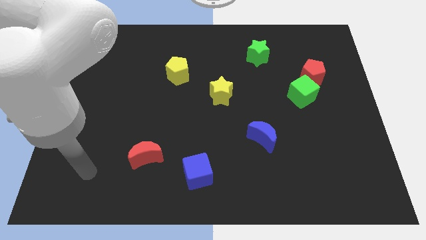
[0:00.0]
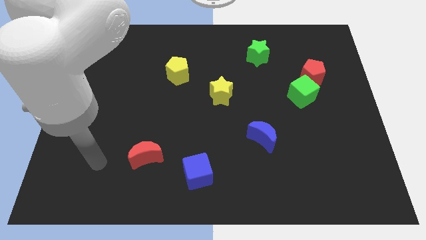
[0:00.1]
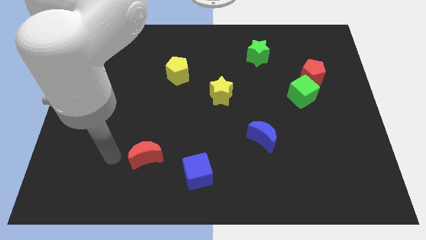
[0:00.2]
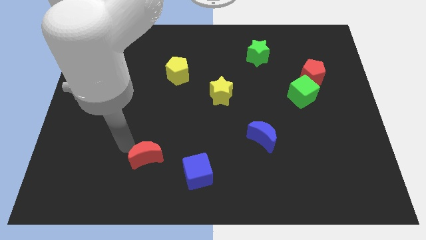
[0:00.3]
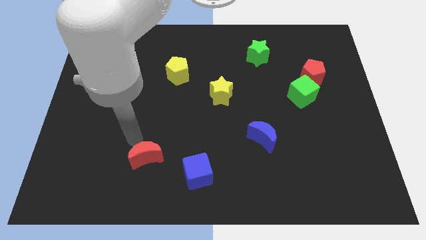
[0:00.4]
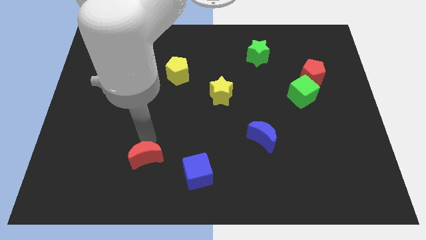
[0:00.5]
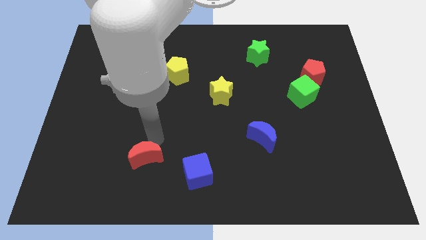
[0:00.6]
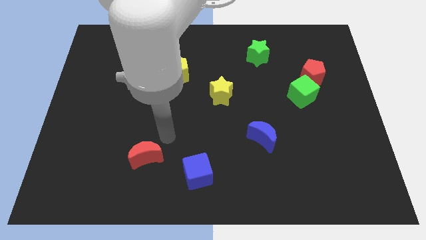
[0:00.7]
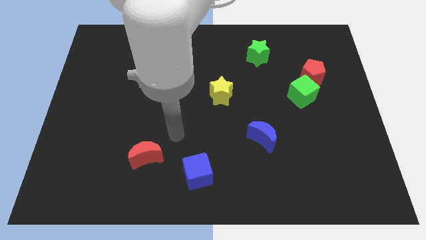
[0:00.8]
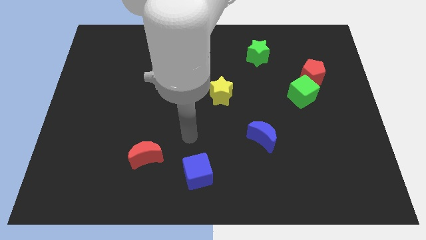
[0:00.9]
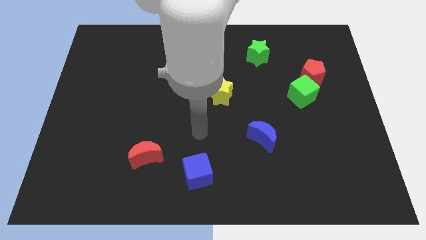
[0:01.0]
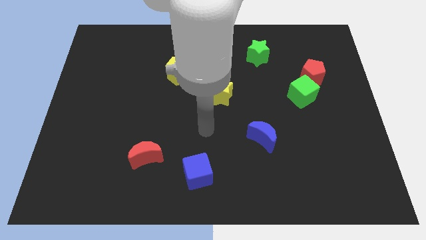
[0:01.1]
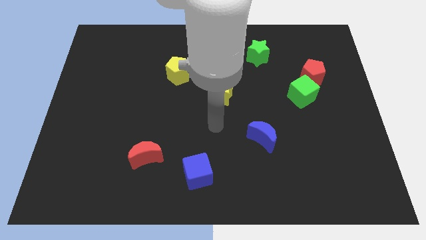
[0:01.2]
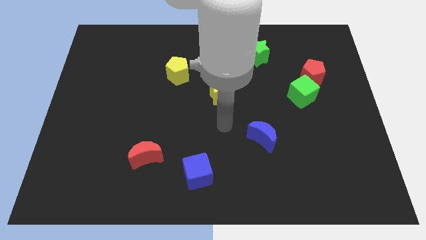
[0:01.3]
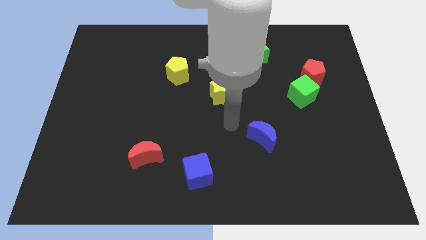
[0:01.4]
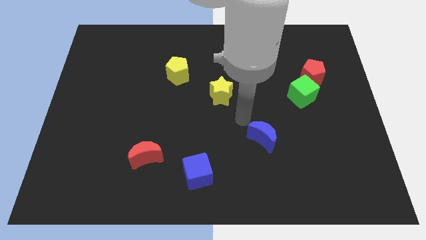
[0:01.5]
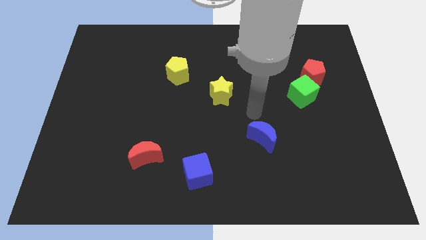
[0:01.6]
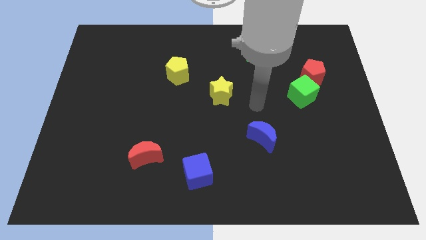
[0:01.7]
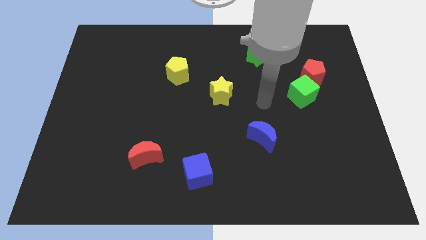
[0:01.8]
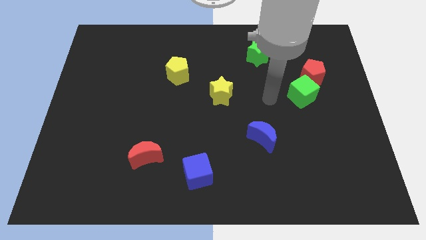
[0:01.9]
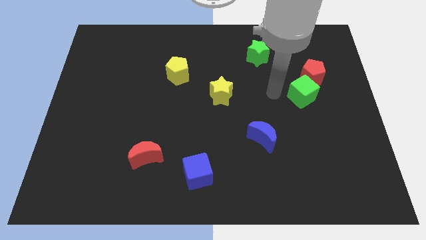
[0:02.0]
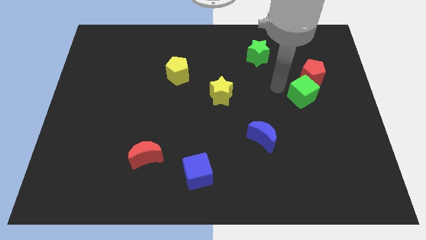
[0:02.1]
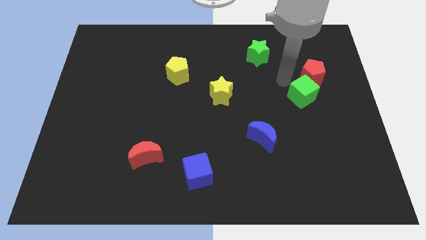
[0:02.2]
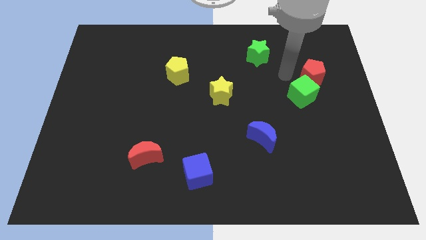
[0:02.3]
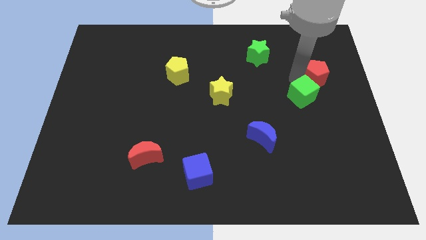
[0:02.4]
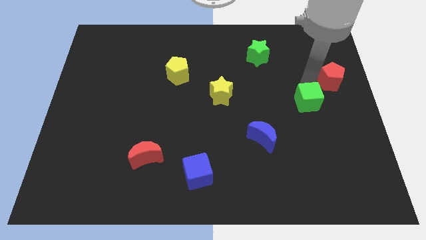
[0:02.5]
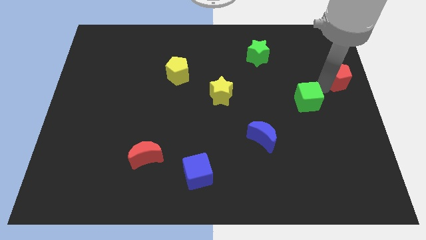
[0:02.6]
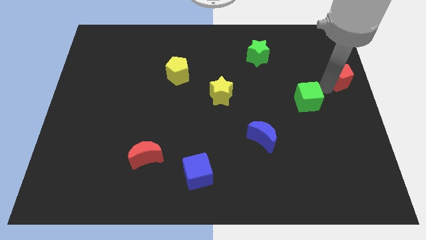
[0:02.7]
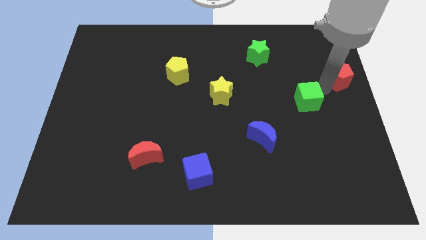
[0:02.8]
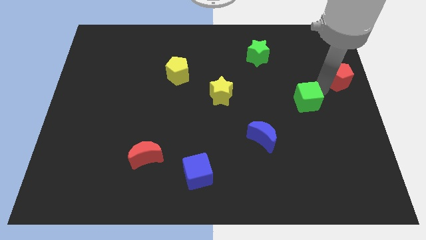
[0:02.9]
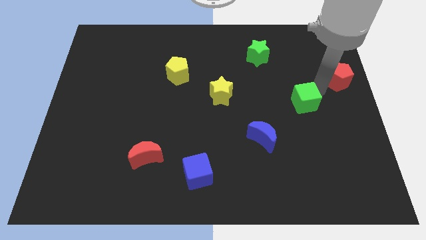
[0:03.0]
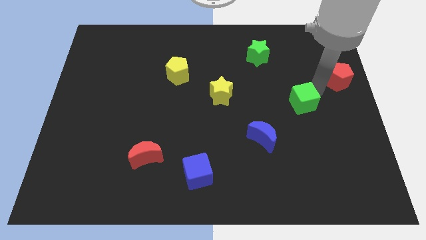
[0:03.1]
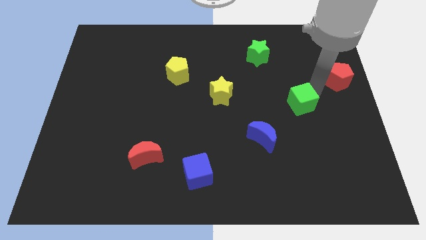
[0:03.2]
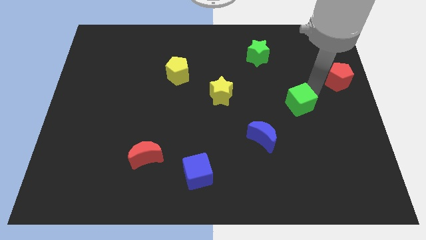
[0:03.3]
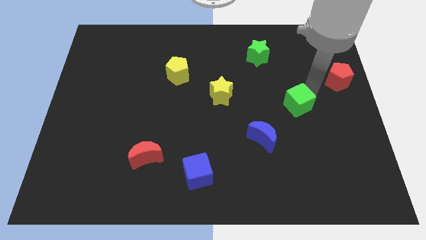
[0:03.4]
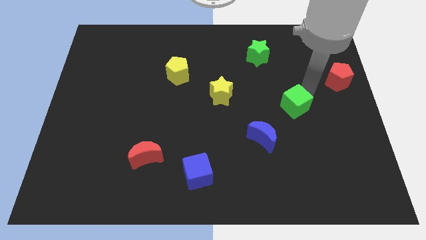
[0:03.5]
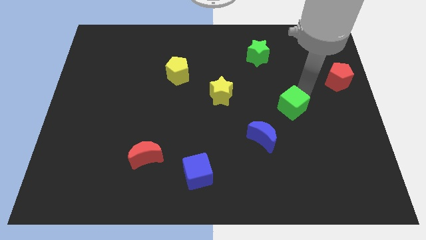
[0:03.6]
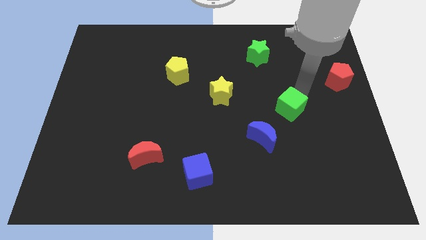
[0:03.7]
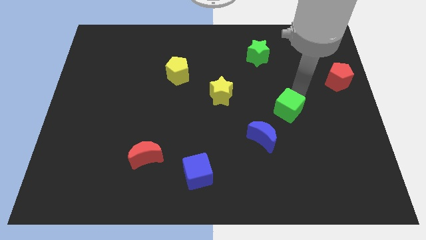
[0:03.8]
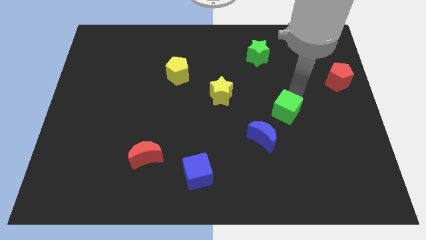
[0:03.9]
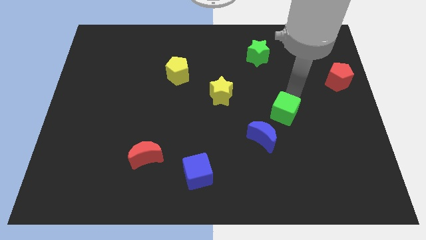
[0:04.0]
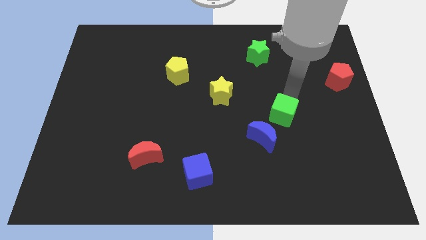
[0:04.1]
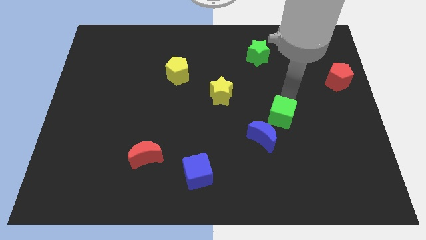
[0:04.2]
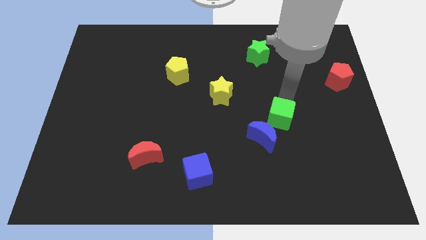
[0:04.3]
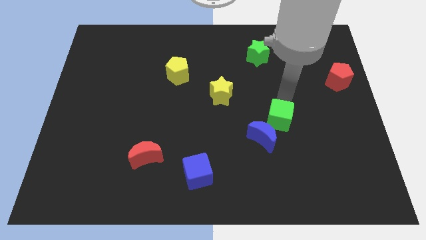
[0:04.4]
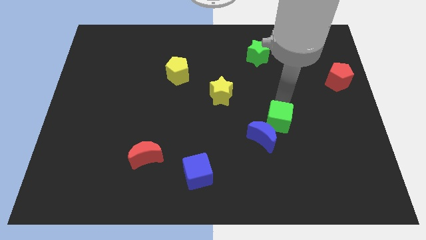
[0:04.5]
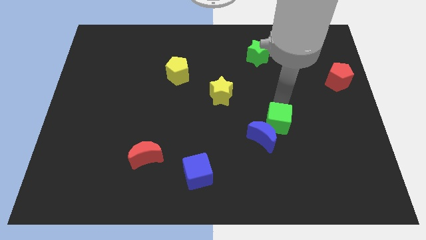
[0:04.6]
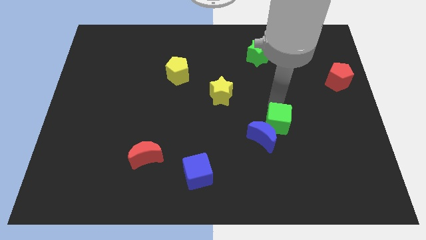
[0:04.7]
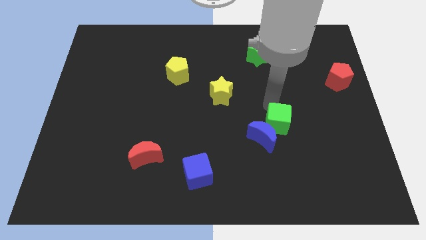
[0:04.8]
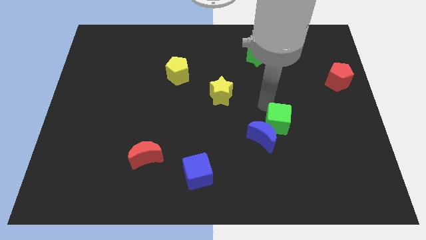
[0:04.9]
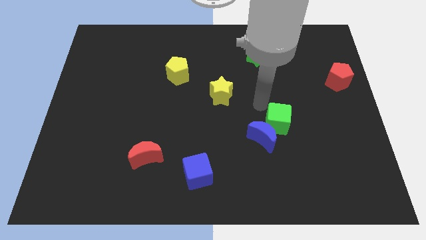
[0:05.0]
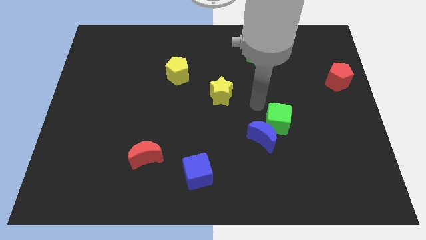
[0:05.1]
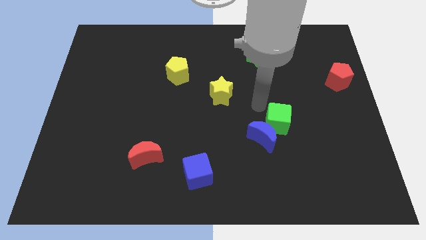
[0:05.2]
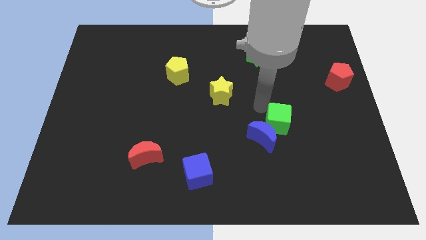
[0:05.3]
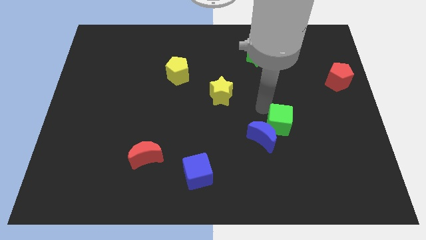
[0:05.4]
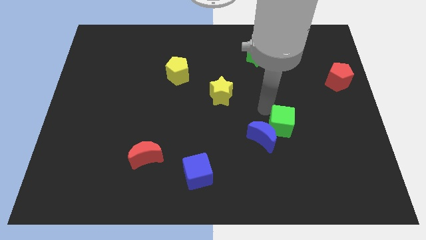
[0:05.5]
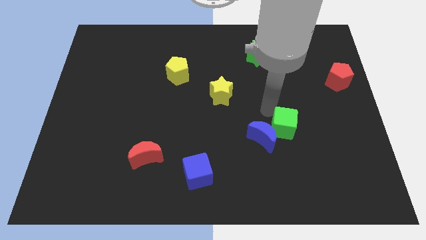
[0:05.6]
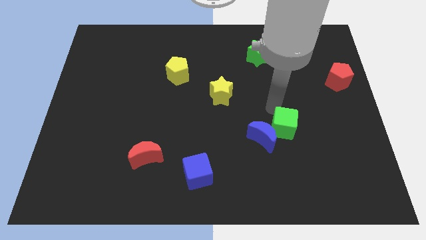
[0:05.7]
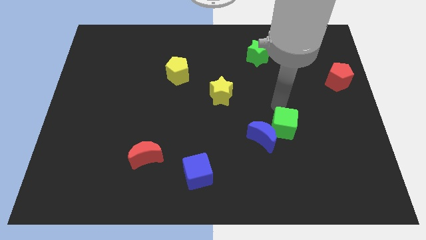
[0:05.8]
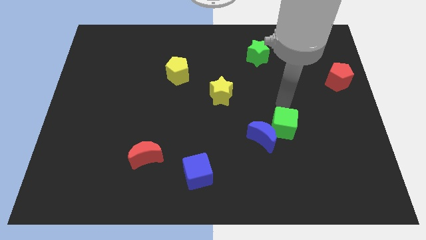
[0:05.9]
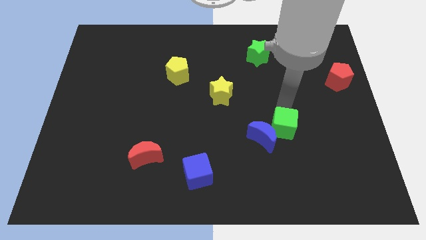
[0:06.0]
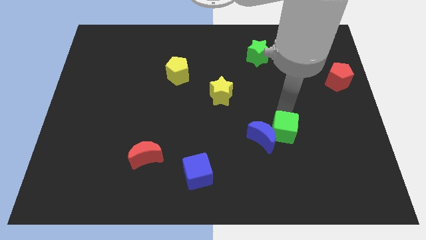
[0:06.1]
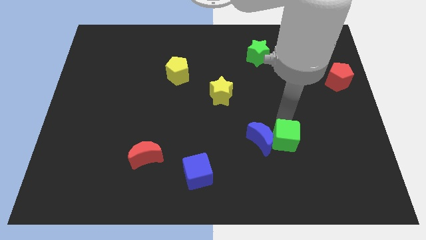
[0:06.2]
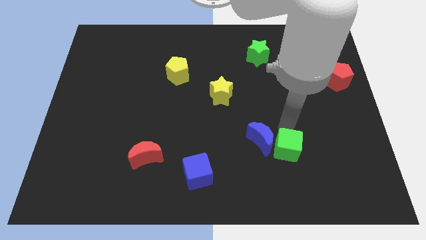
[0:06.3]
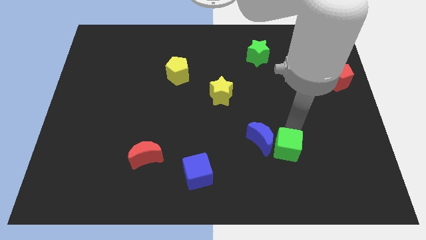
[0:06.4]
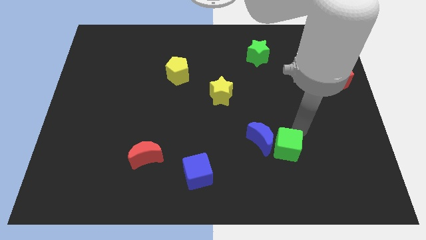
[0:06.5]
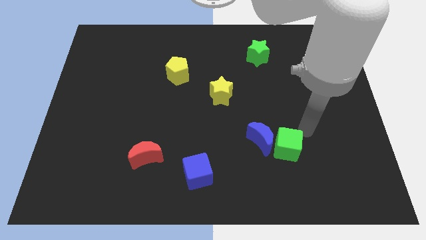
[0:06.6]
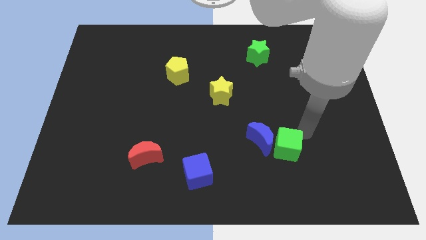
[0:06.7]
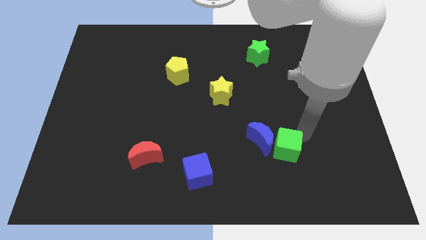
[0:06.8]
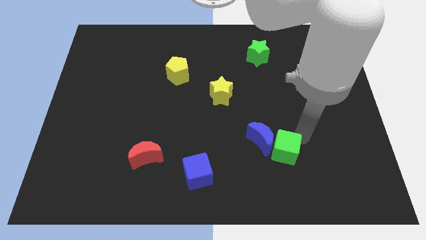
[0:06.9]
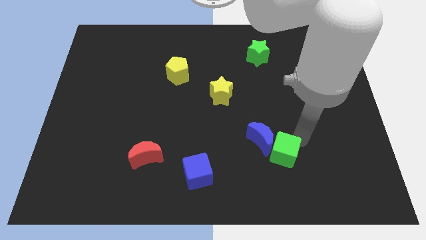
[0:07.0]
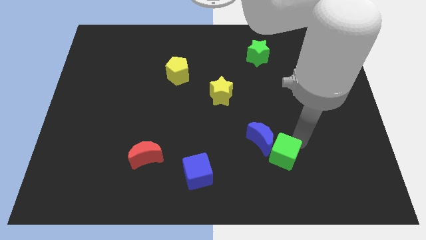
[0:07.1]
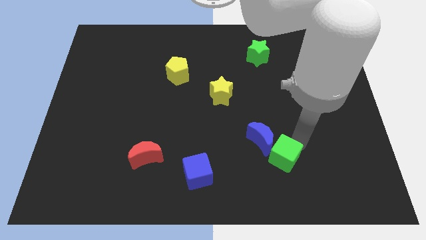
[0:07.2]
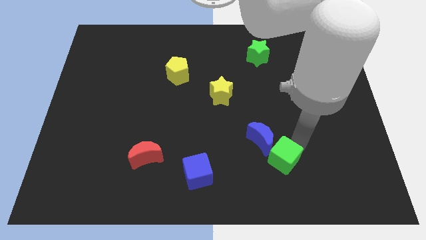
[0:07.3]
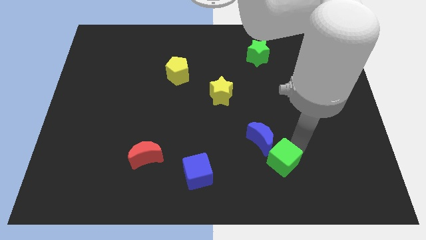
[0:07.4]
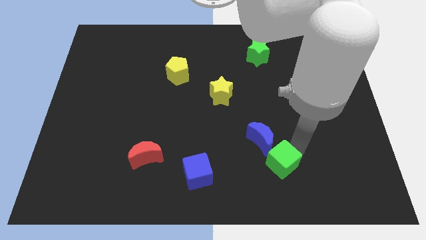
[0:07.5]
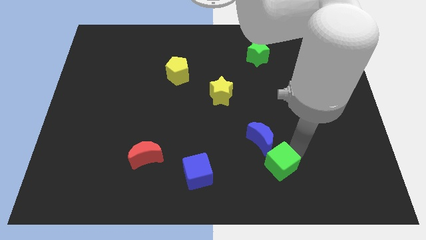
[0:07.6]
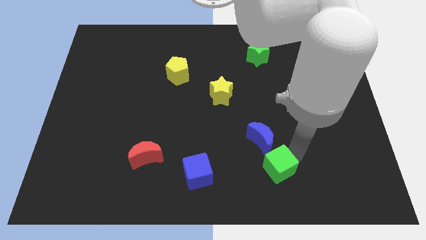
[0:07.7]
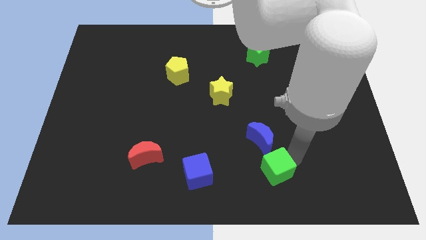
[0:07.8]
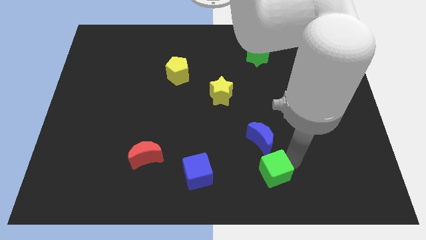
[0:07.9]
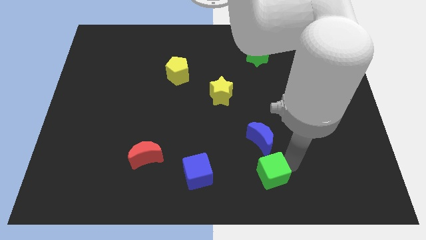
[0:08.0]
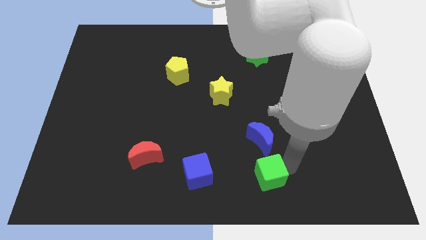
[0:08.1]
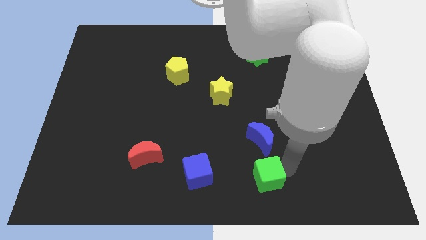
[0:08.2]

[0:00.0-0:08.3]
move the green cube to the bottom side
